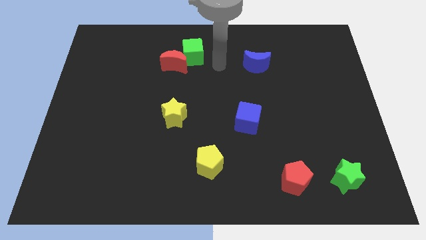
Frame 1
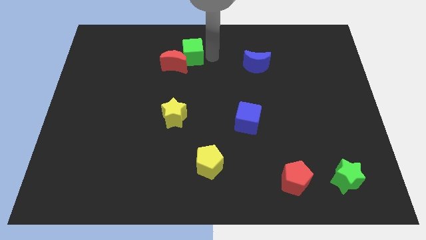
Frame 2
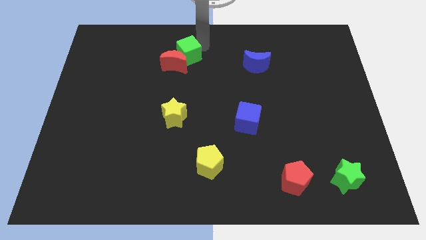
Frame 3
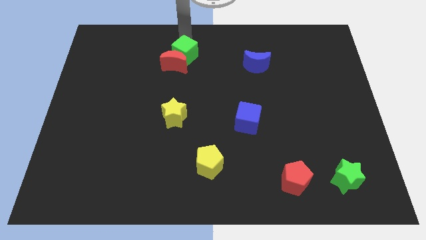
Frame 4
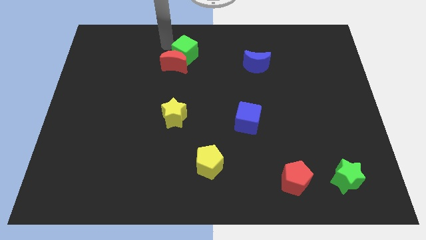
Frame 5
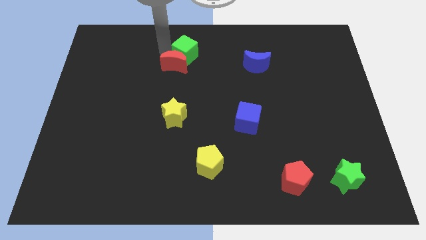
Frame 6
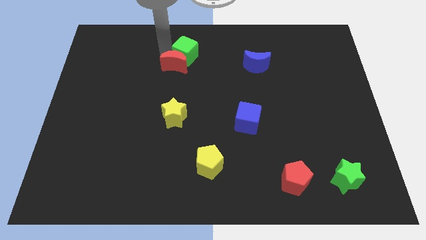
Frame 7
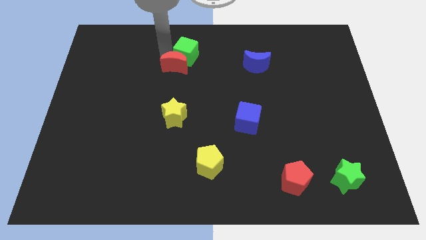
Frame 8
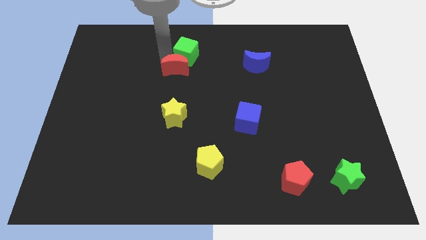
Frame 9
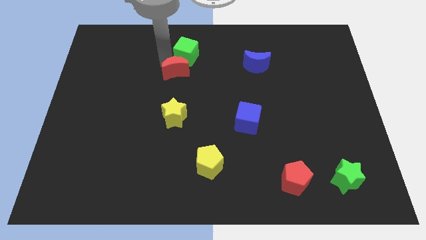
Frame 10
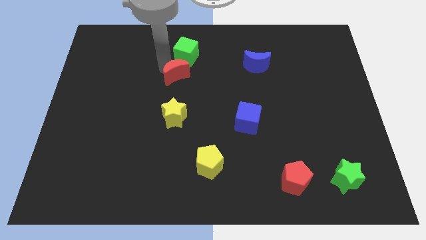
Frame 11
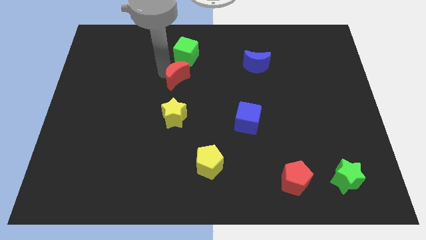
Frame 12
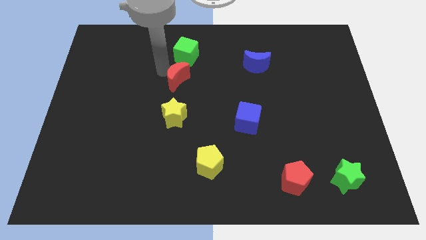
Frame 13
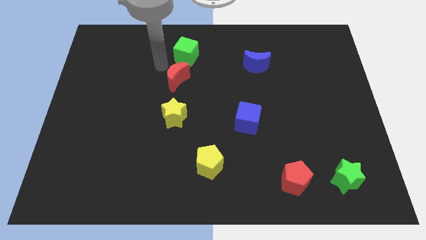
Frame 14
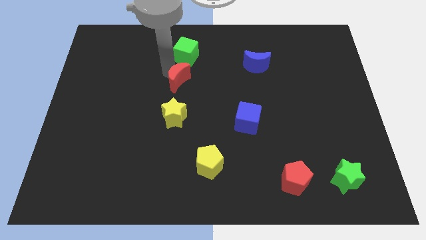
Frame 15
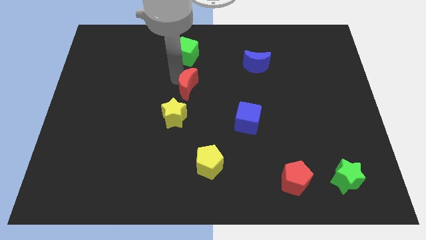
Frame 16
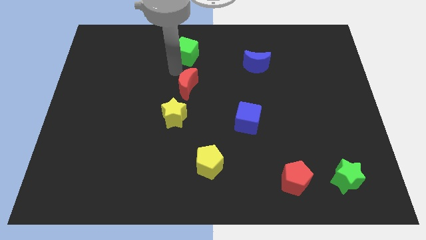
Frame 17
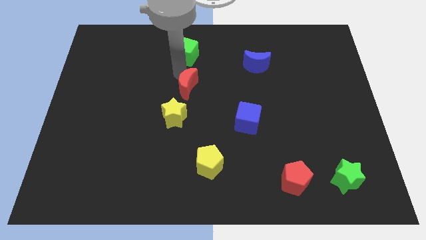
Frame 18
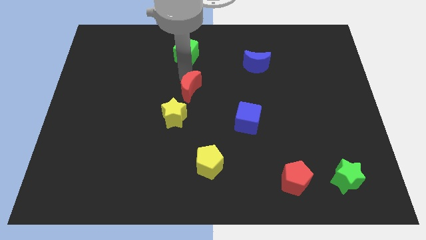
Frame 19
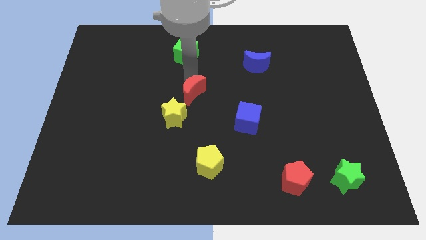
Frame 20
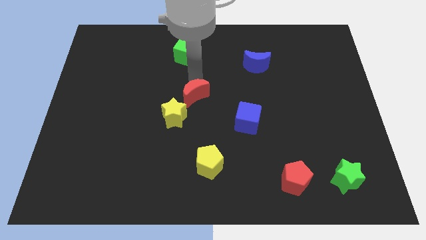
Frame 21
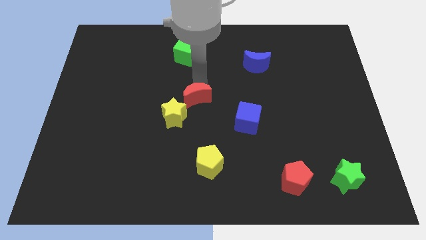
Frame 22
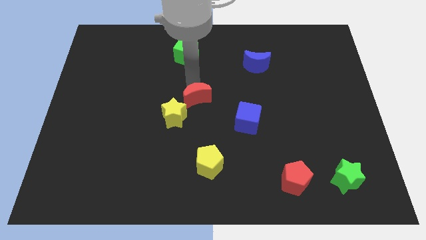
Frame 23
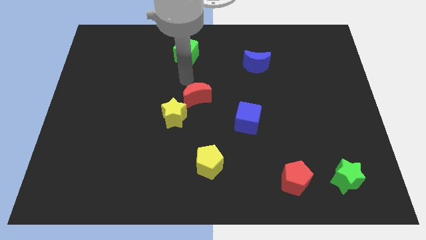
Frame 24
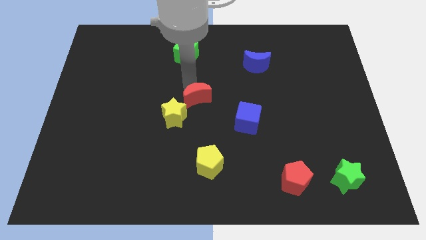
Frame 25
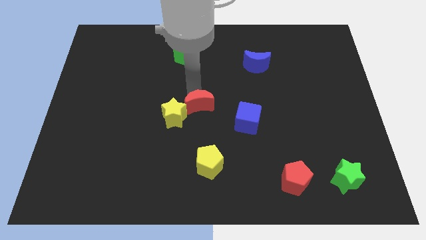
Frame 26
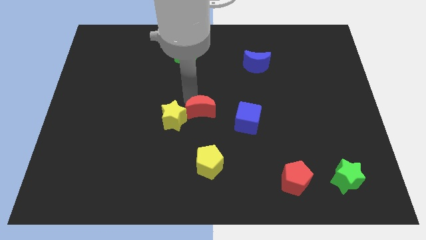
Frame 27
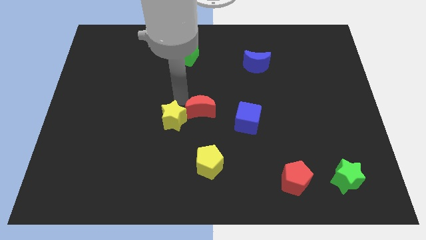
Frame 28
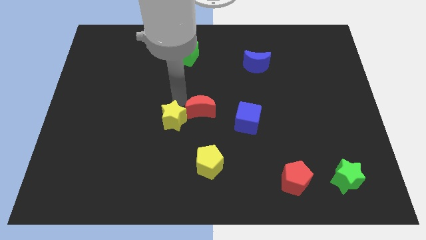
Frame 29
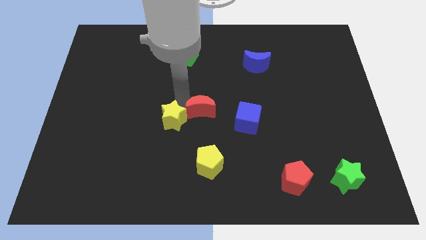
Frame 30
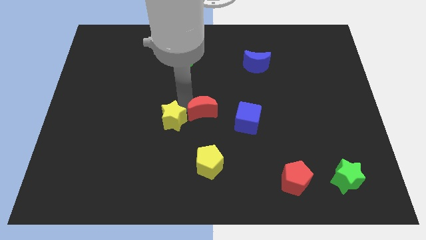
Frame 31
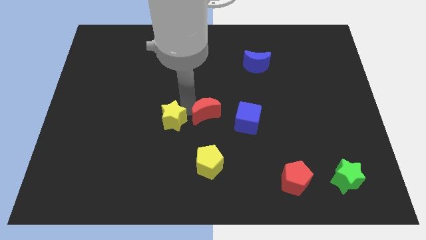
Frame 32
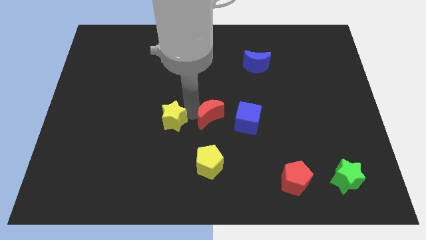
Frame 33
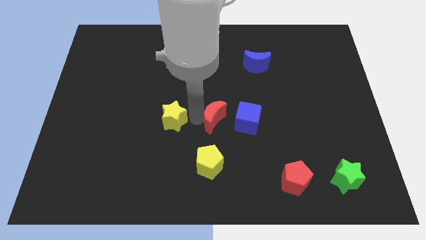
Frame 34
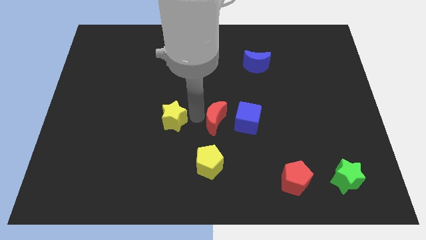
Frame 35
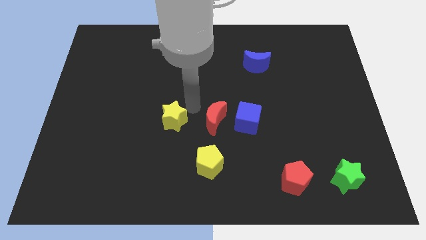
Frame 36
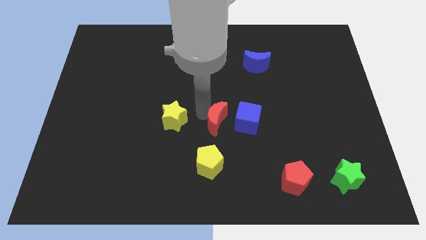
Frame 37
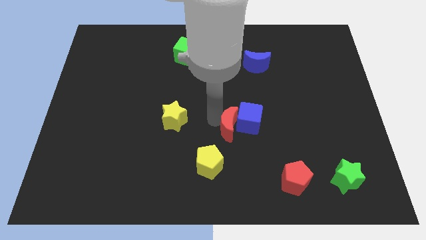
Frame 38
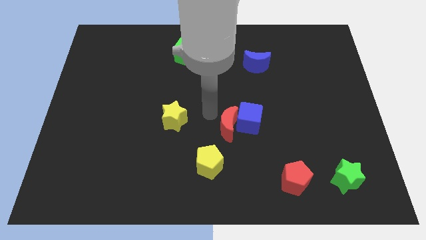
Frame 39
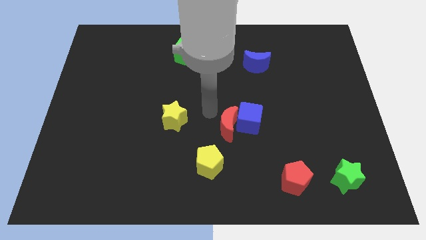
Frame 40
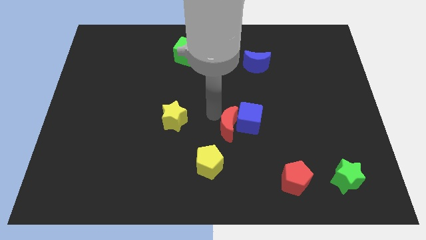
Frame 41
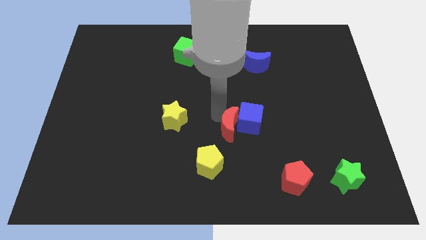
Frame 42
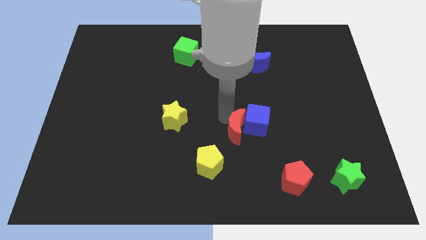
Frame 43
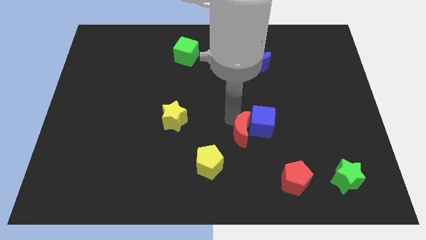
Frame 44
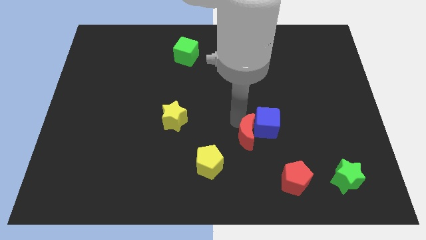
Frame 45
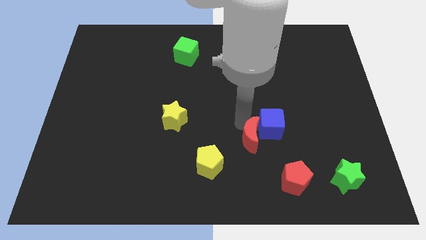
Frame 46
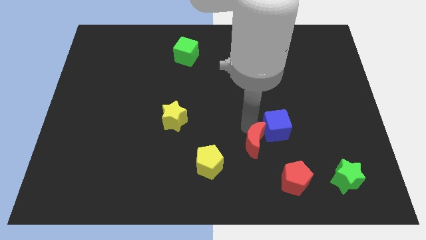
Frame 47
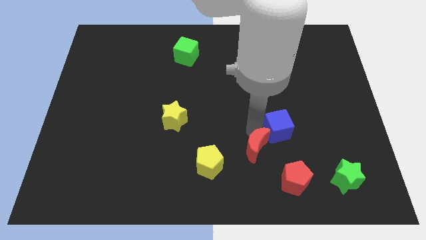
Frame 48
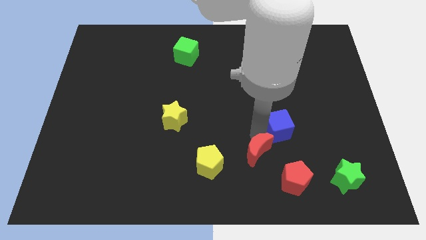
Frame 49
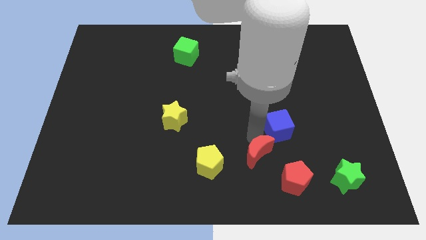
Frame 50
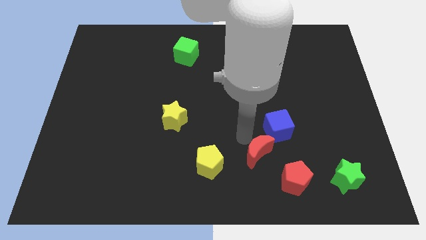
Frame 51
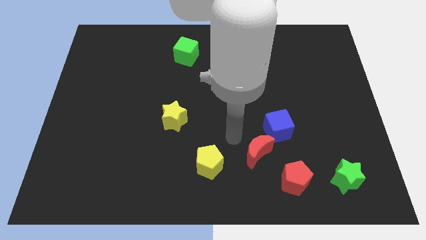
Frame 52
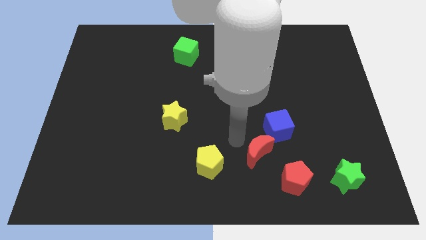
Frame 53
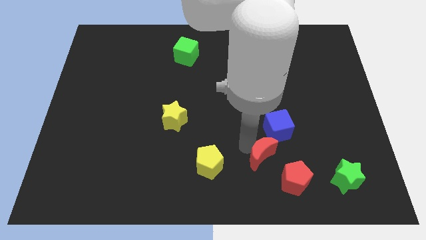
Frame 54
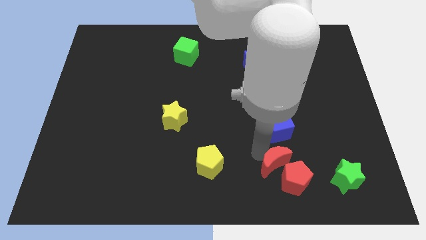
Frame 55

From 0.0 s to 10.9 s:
slide the red moon to the red pentagon

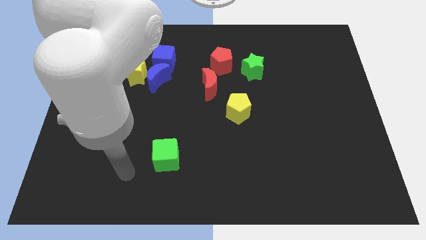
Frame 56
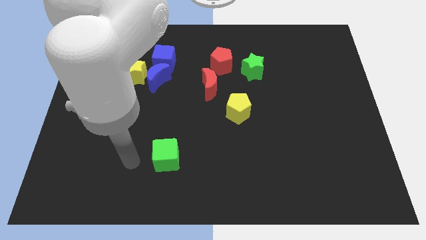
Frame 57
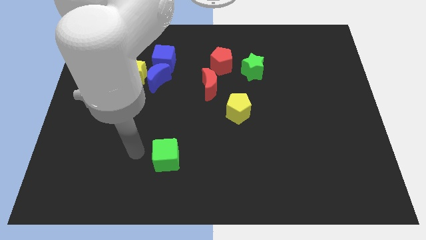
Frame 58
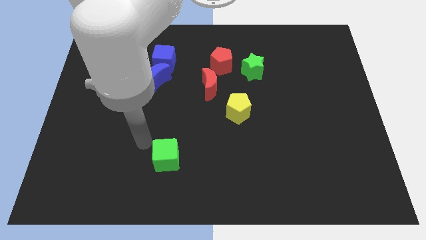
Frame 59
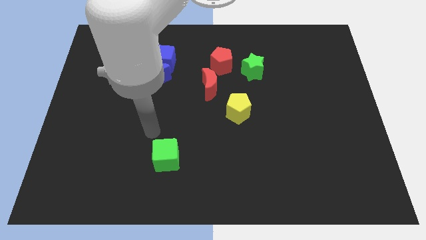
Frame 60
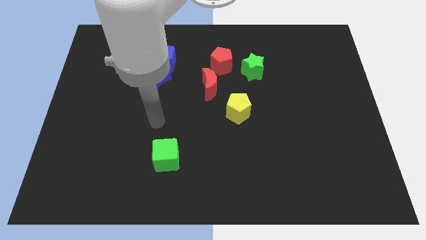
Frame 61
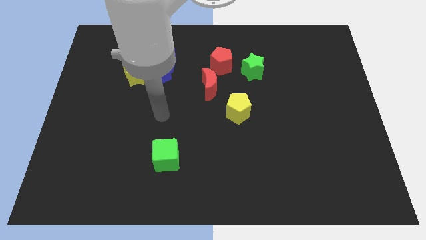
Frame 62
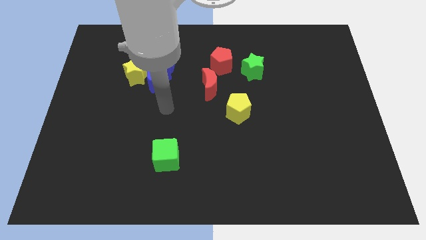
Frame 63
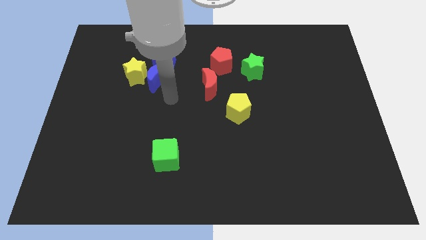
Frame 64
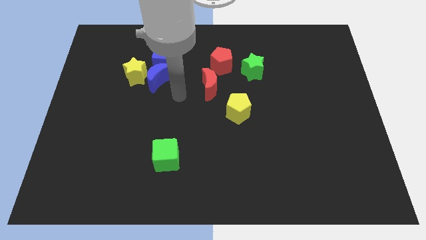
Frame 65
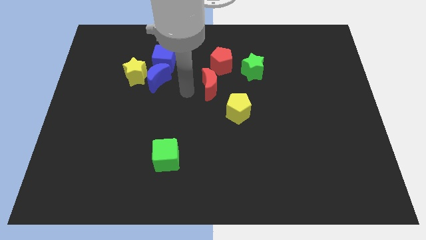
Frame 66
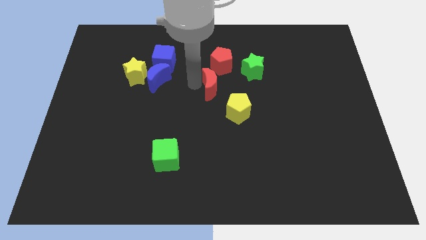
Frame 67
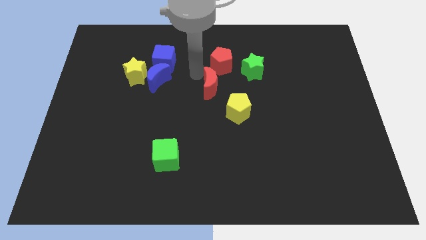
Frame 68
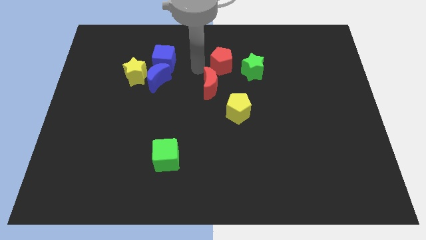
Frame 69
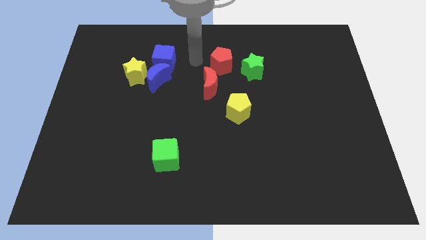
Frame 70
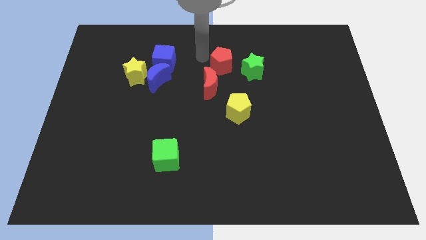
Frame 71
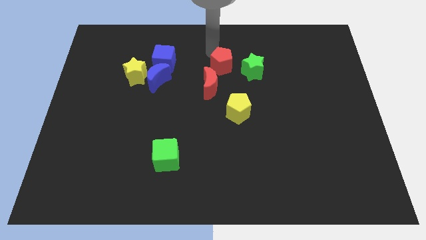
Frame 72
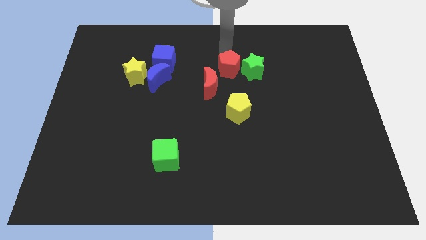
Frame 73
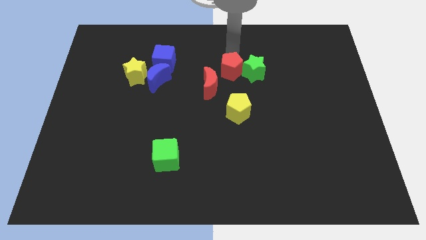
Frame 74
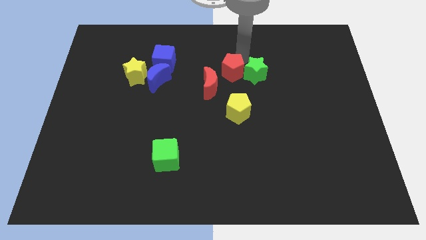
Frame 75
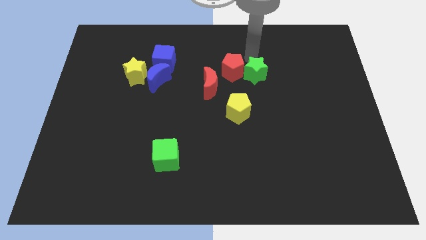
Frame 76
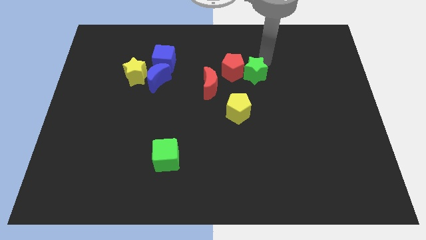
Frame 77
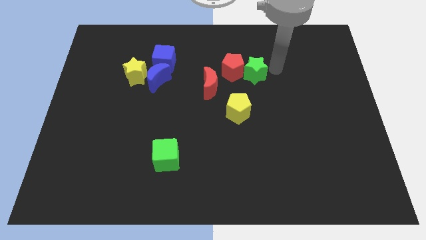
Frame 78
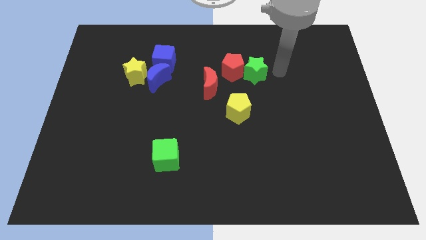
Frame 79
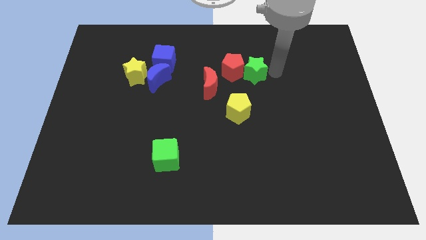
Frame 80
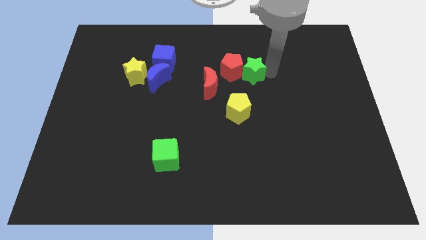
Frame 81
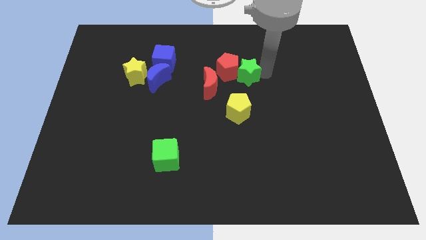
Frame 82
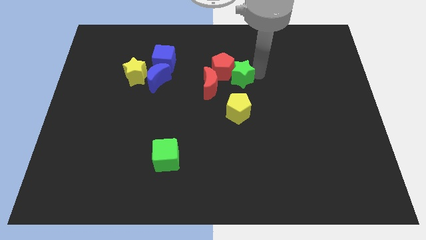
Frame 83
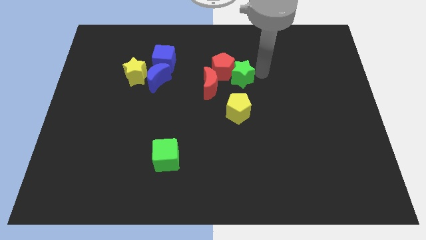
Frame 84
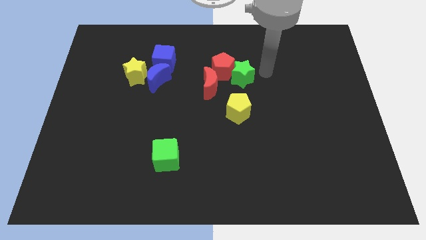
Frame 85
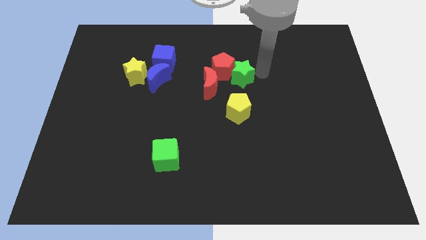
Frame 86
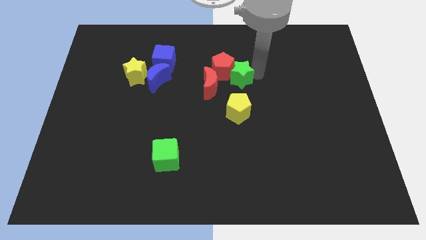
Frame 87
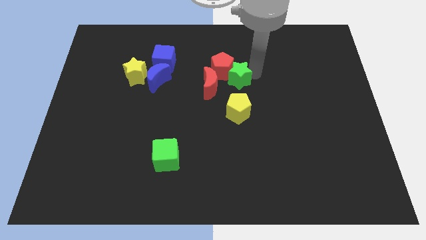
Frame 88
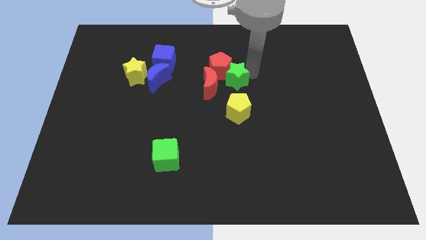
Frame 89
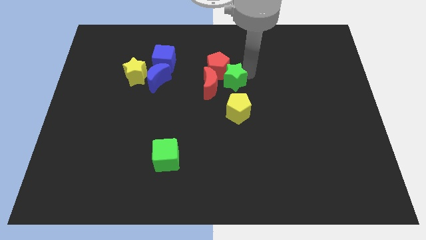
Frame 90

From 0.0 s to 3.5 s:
put the green star next to the red moon
